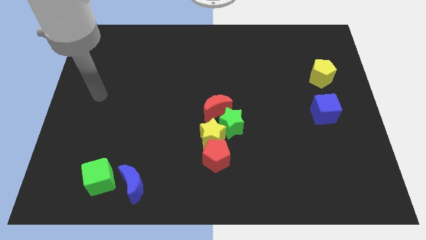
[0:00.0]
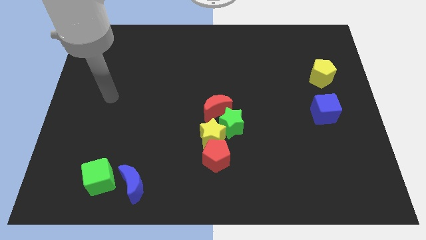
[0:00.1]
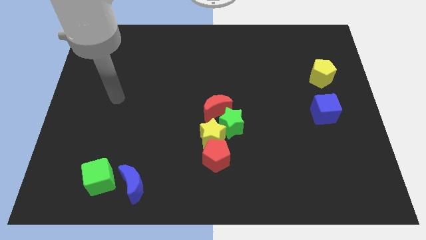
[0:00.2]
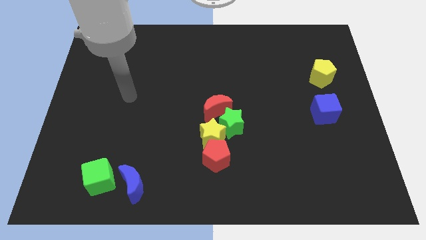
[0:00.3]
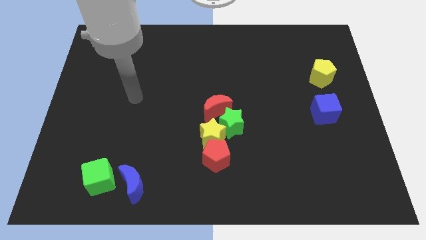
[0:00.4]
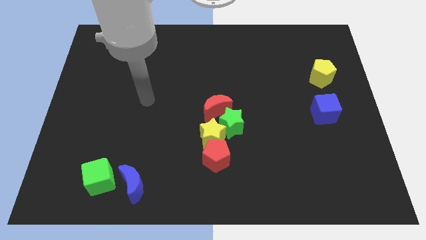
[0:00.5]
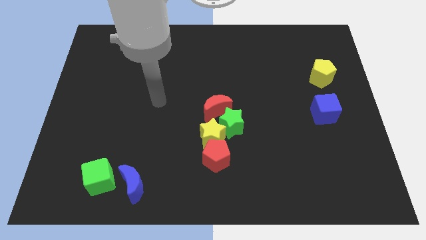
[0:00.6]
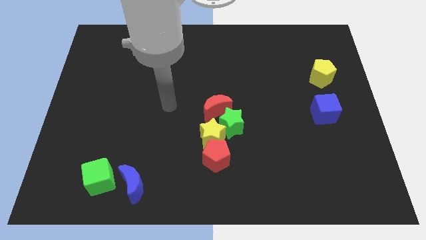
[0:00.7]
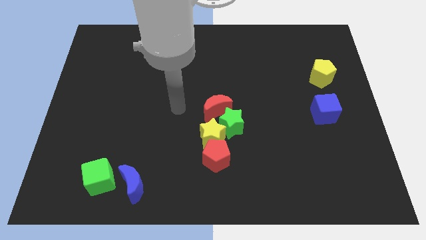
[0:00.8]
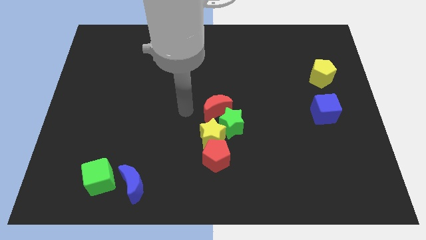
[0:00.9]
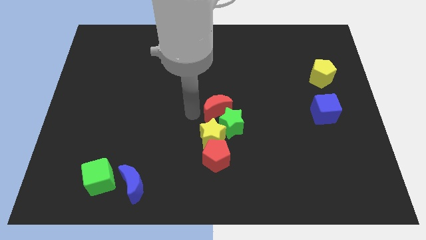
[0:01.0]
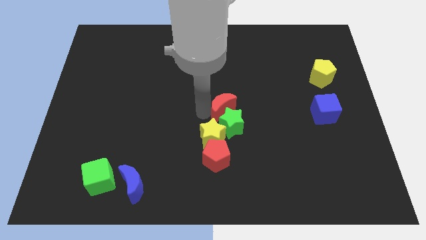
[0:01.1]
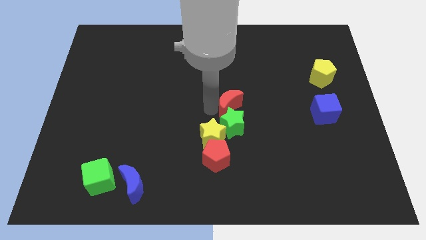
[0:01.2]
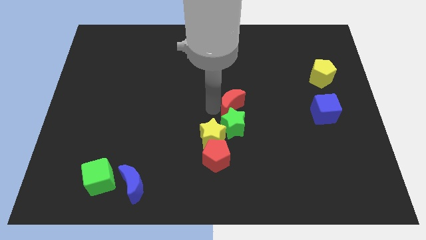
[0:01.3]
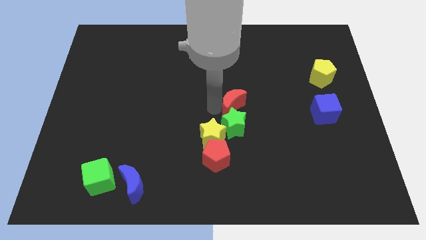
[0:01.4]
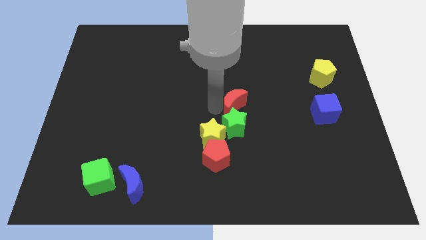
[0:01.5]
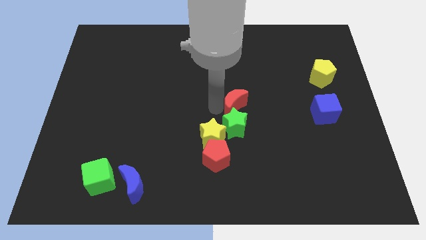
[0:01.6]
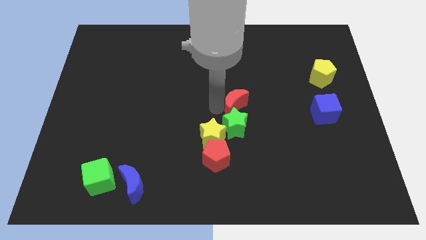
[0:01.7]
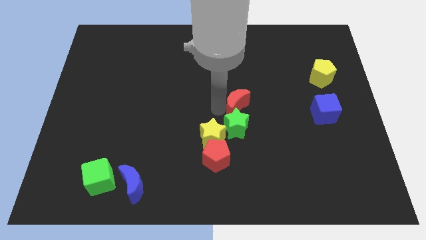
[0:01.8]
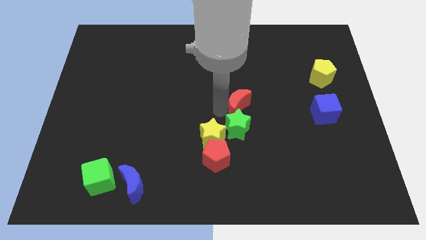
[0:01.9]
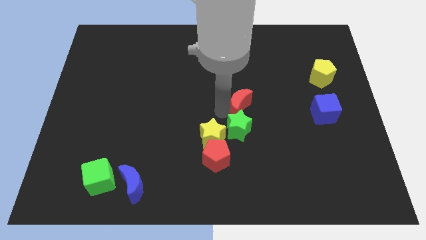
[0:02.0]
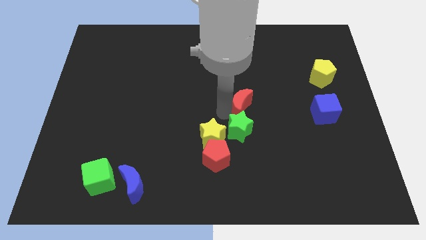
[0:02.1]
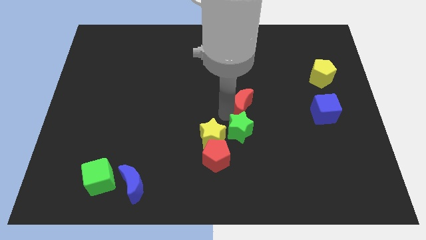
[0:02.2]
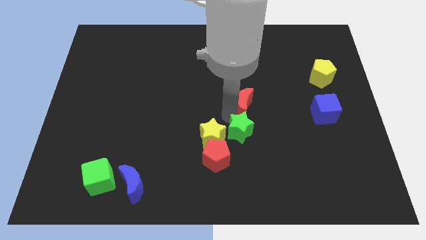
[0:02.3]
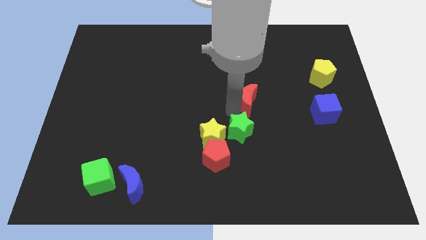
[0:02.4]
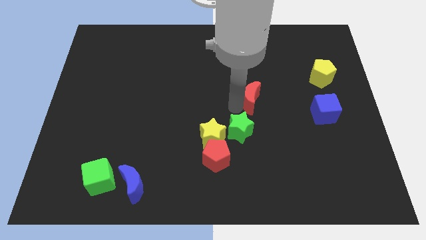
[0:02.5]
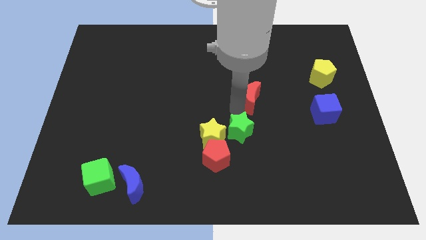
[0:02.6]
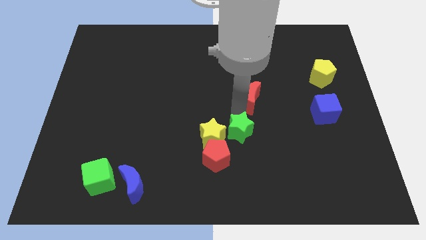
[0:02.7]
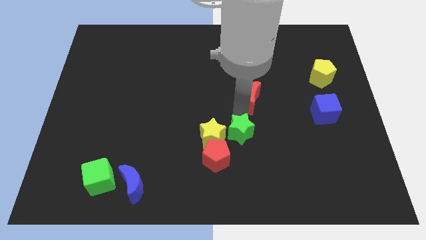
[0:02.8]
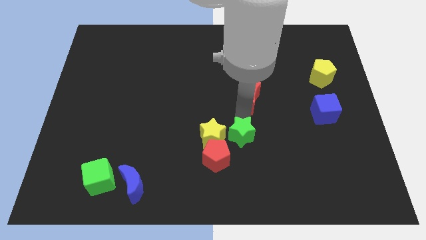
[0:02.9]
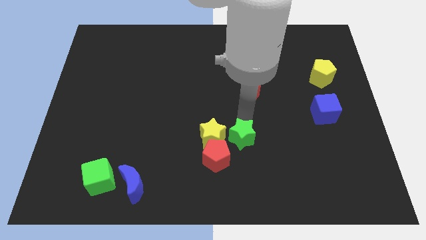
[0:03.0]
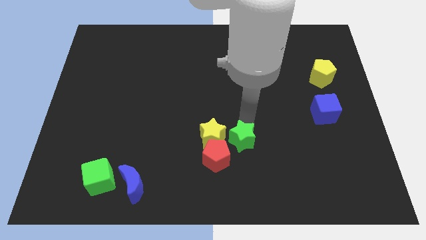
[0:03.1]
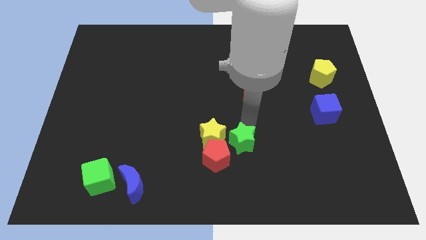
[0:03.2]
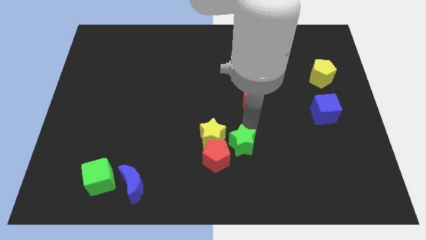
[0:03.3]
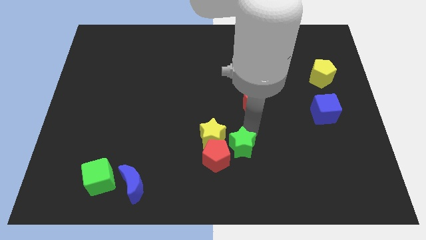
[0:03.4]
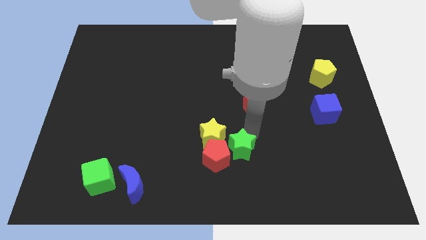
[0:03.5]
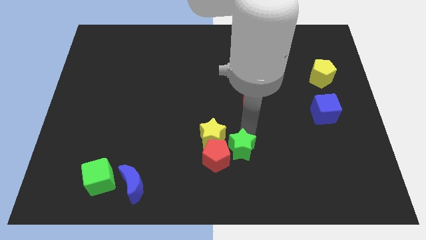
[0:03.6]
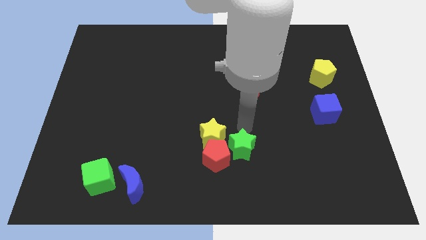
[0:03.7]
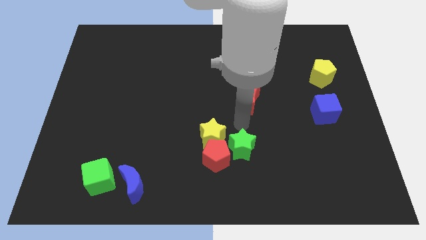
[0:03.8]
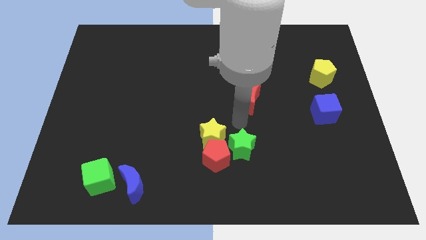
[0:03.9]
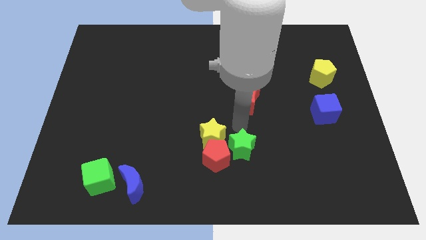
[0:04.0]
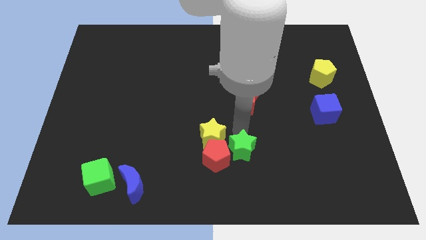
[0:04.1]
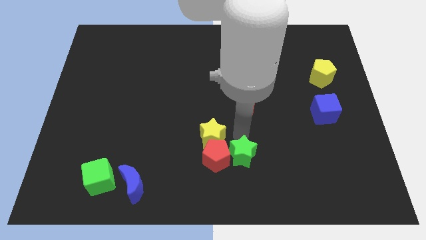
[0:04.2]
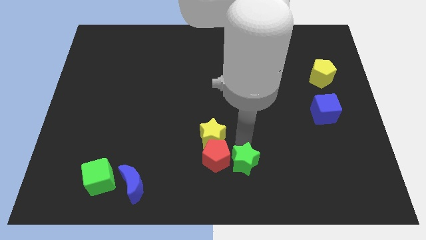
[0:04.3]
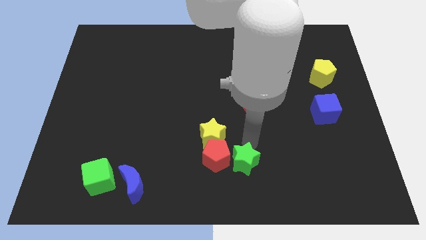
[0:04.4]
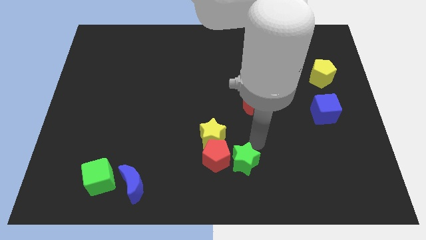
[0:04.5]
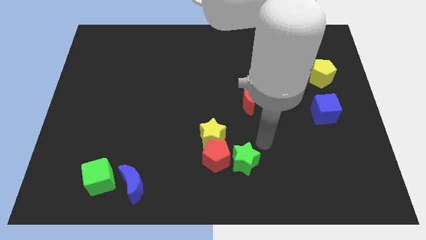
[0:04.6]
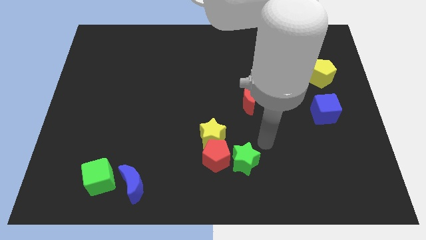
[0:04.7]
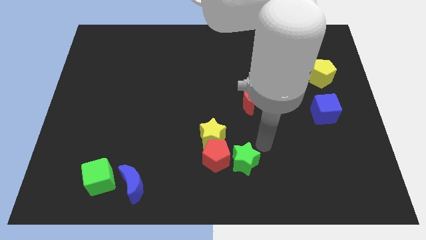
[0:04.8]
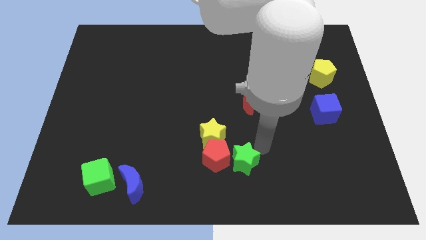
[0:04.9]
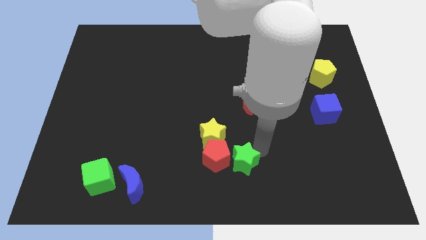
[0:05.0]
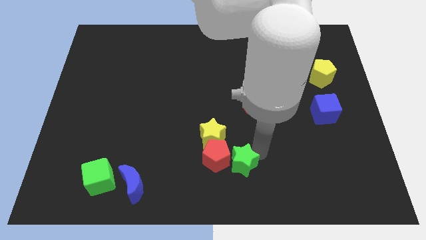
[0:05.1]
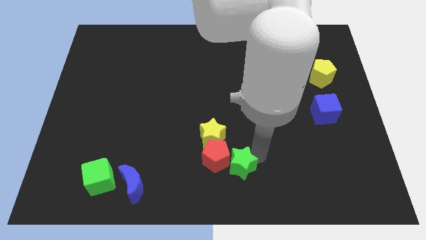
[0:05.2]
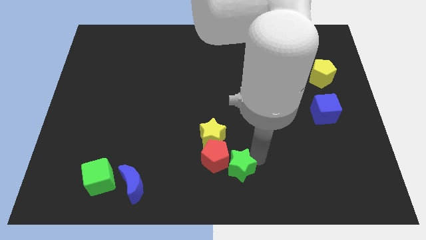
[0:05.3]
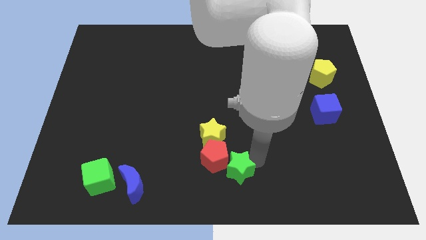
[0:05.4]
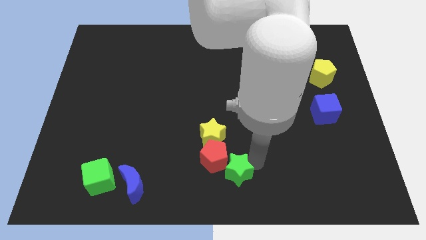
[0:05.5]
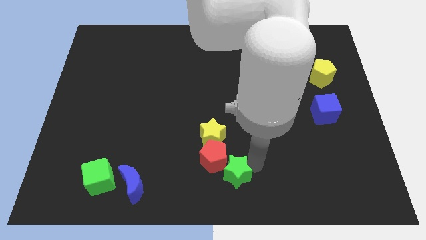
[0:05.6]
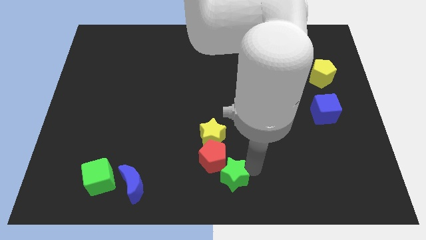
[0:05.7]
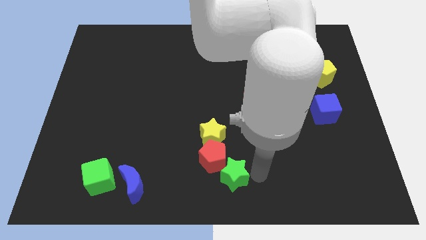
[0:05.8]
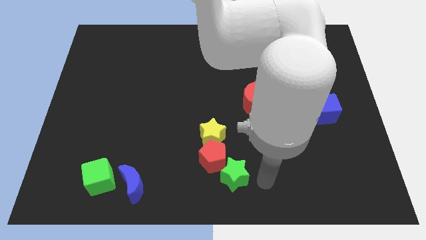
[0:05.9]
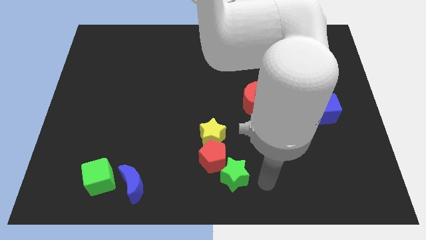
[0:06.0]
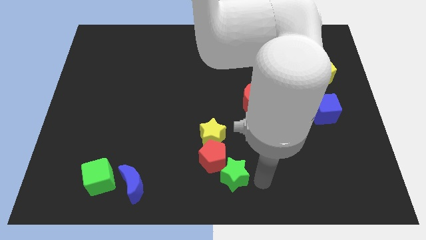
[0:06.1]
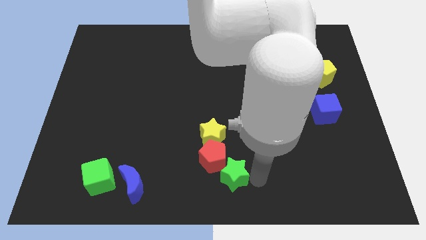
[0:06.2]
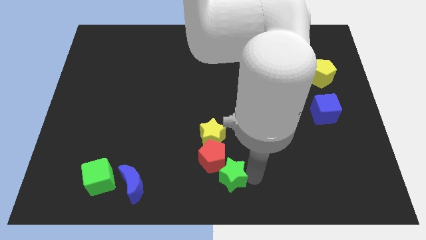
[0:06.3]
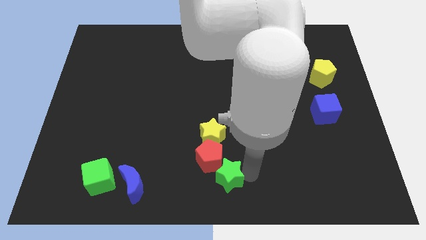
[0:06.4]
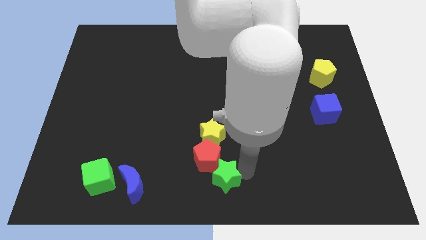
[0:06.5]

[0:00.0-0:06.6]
move the green star a little bit diagonally down and to the left

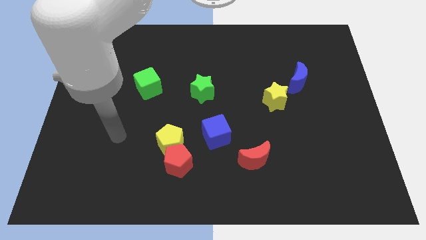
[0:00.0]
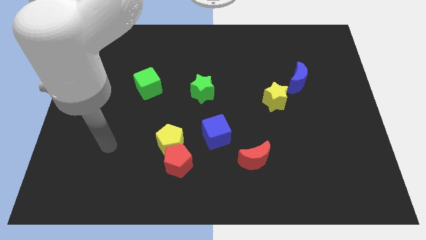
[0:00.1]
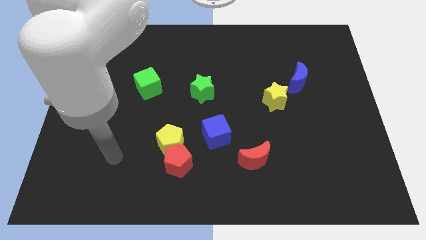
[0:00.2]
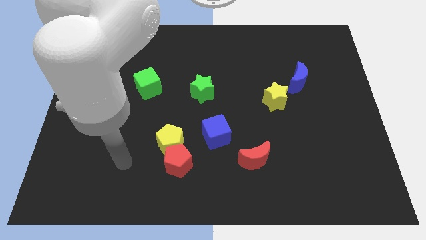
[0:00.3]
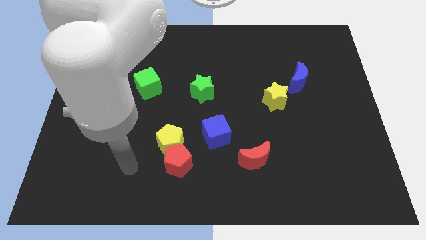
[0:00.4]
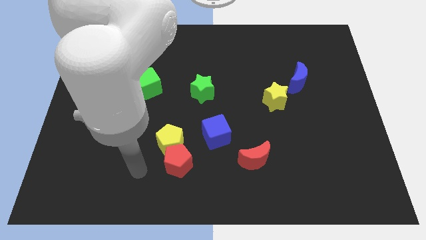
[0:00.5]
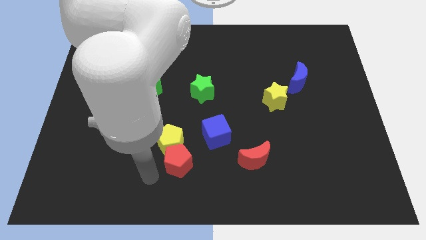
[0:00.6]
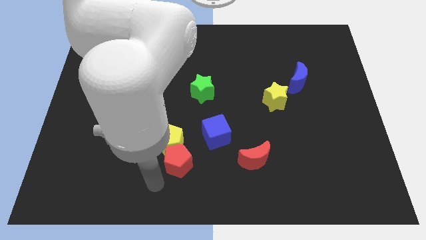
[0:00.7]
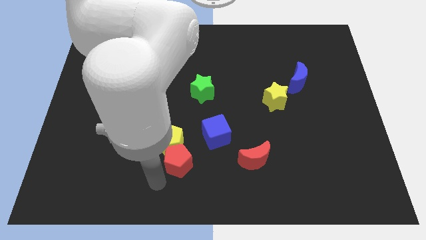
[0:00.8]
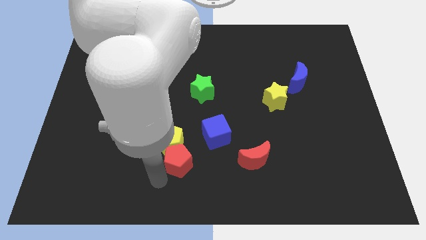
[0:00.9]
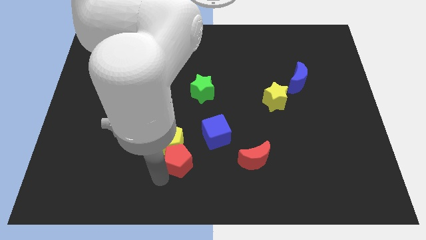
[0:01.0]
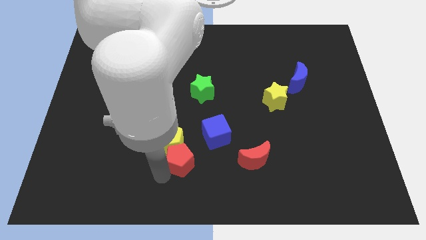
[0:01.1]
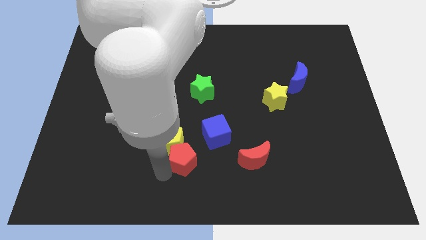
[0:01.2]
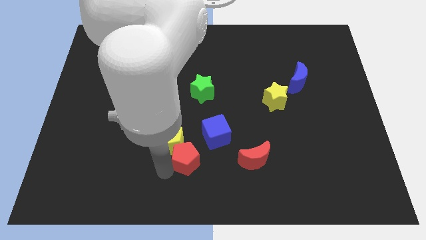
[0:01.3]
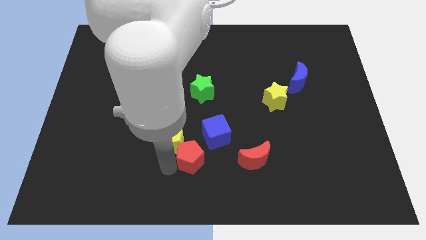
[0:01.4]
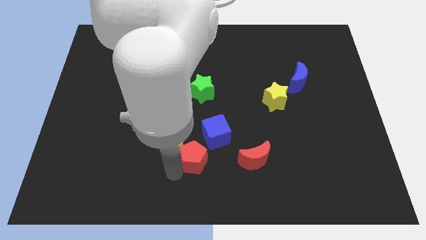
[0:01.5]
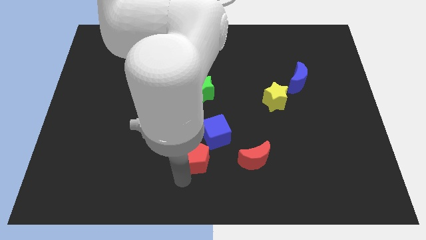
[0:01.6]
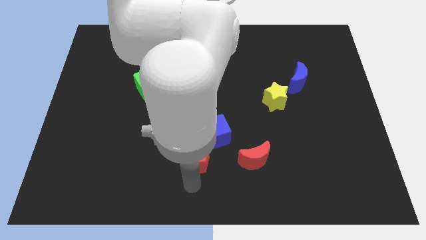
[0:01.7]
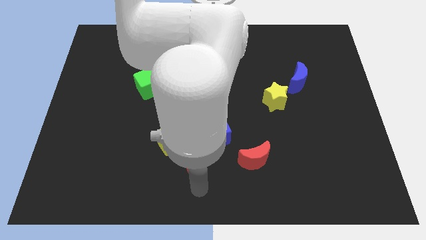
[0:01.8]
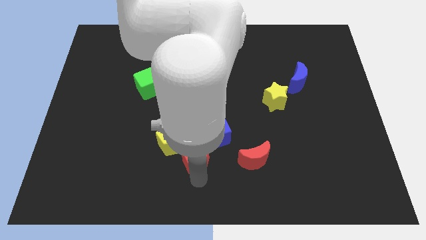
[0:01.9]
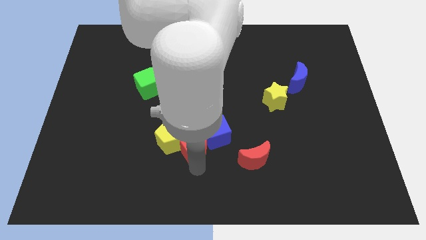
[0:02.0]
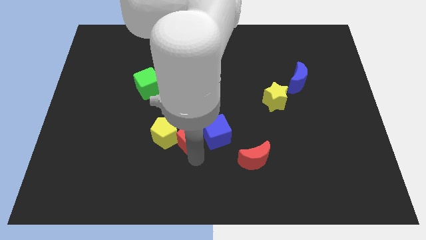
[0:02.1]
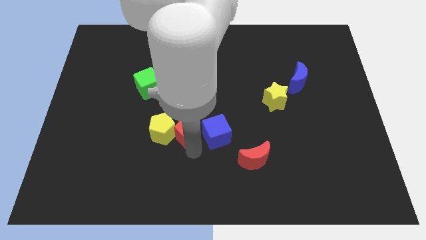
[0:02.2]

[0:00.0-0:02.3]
move the red pentagon a bit up
